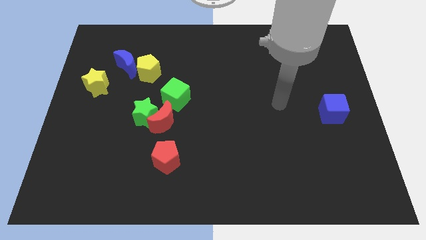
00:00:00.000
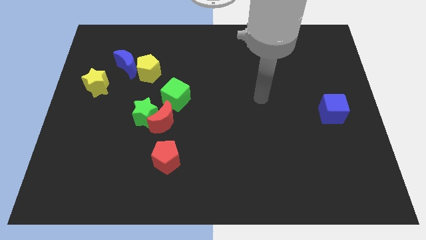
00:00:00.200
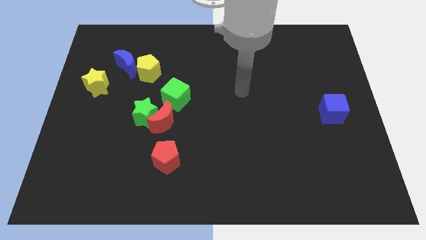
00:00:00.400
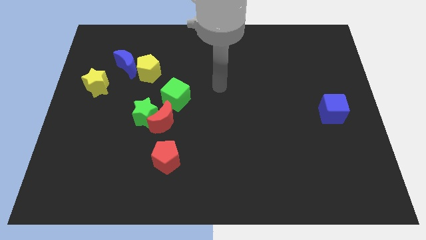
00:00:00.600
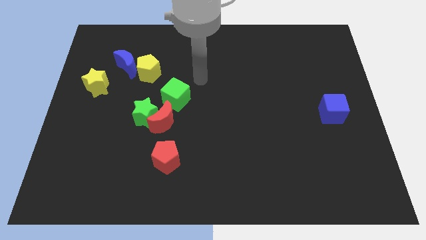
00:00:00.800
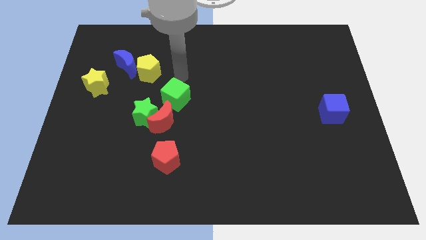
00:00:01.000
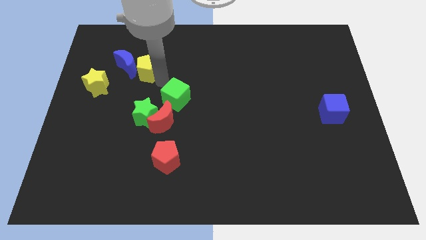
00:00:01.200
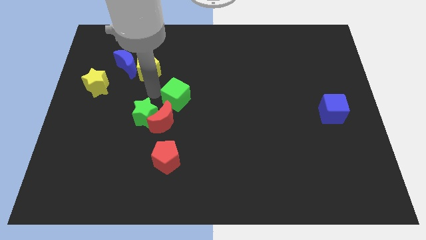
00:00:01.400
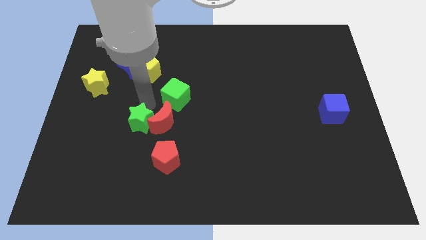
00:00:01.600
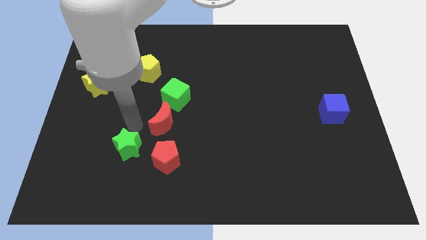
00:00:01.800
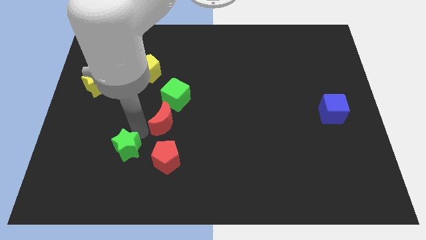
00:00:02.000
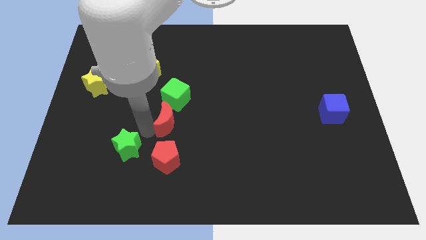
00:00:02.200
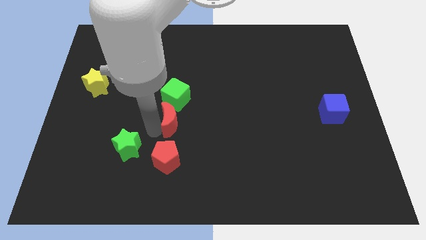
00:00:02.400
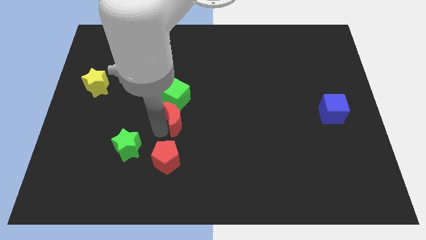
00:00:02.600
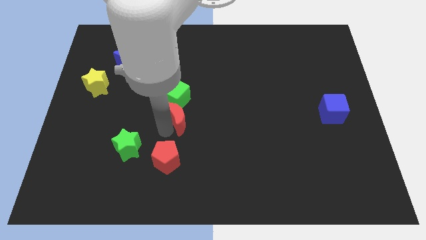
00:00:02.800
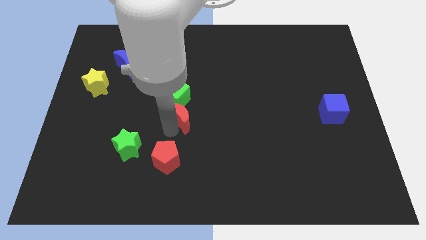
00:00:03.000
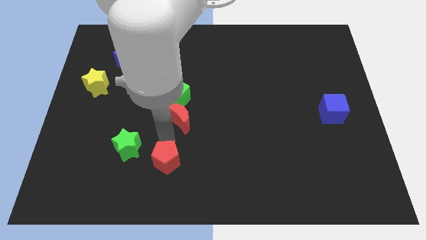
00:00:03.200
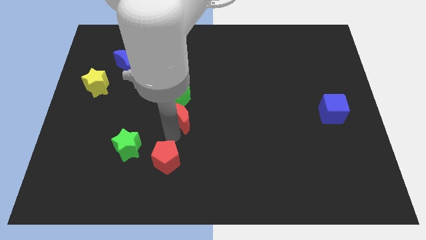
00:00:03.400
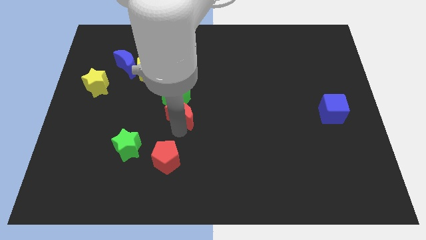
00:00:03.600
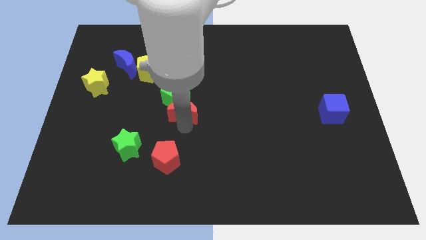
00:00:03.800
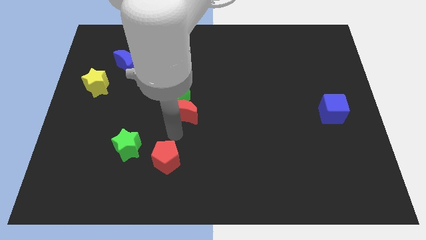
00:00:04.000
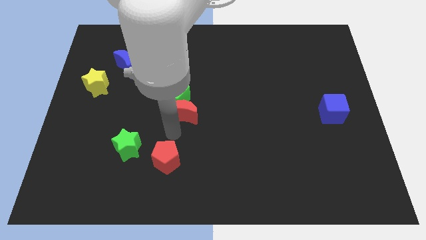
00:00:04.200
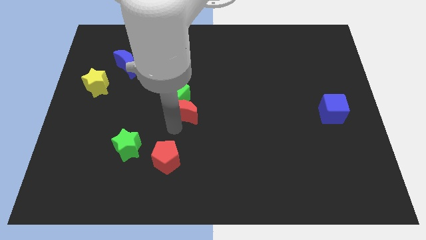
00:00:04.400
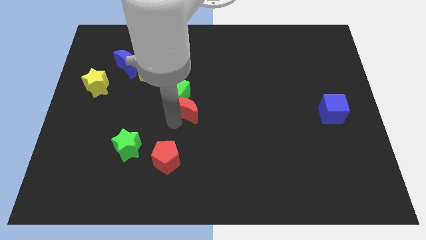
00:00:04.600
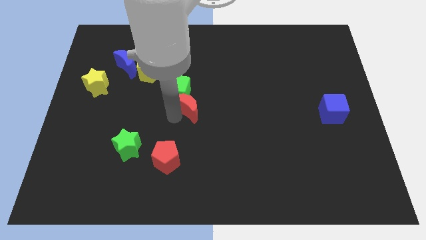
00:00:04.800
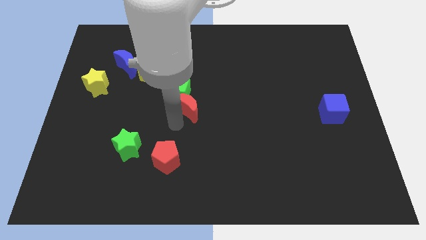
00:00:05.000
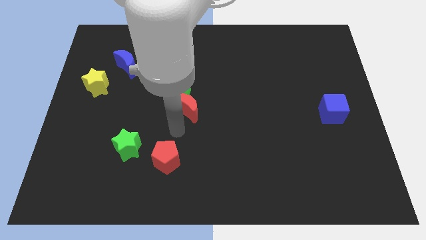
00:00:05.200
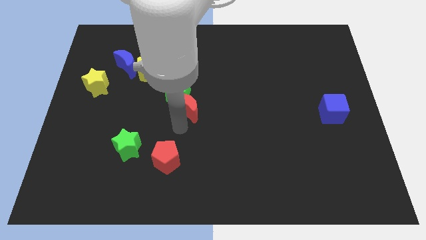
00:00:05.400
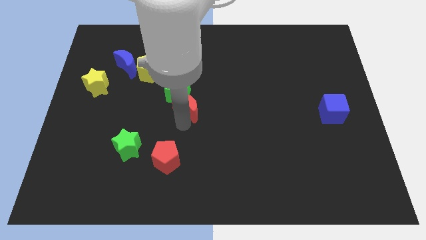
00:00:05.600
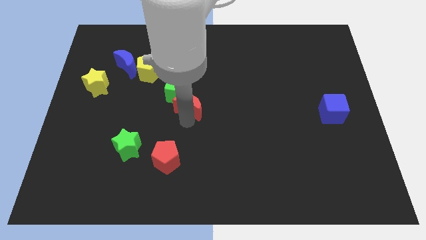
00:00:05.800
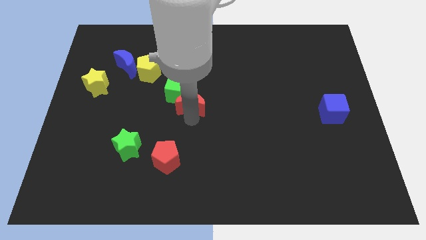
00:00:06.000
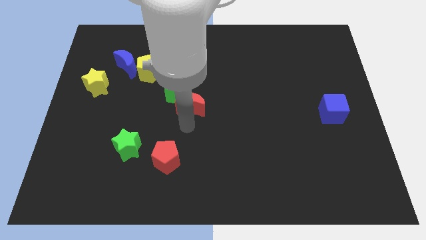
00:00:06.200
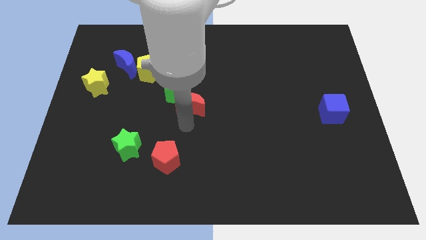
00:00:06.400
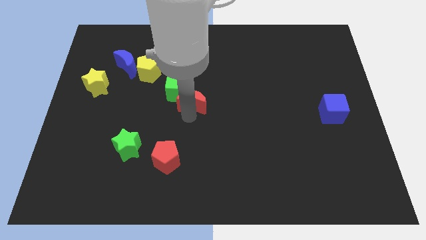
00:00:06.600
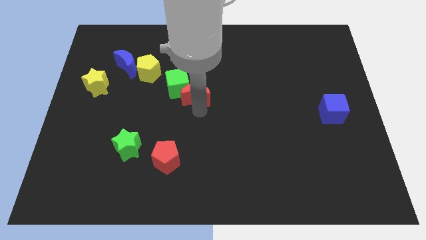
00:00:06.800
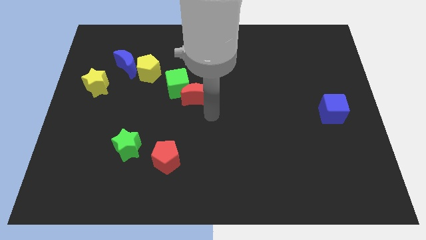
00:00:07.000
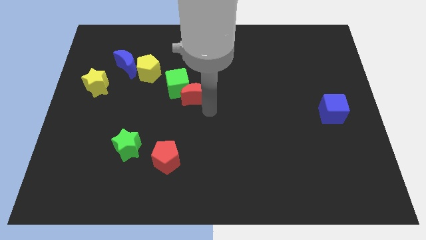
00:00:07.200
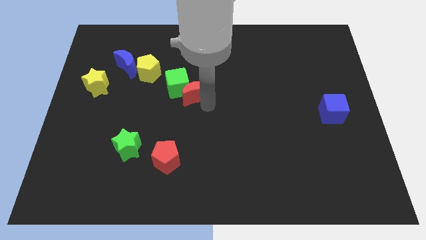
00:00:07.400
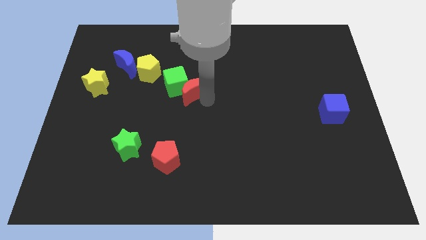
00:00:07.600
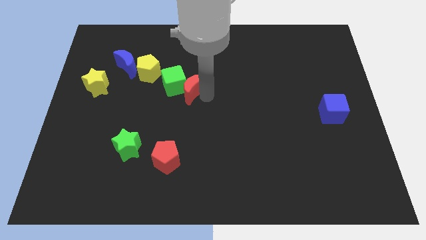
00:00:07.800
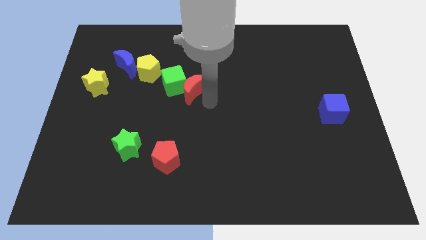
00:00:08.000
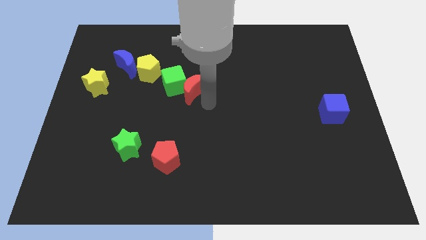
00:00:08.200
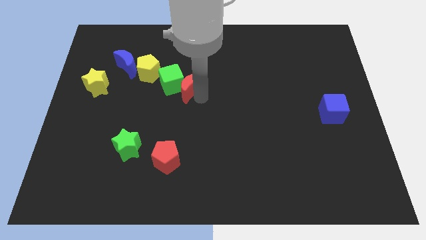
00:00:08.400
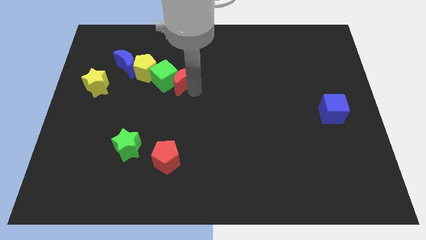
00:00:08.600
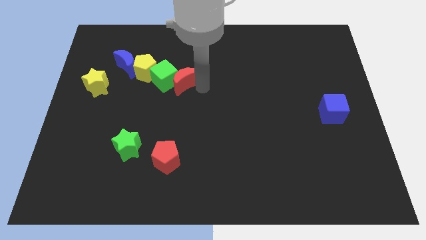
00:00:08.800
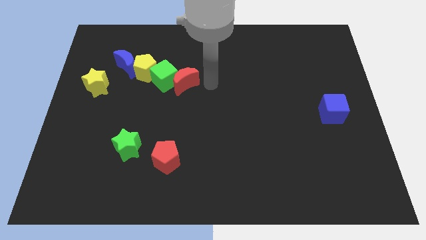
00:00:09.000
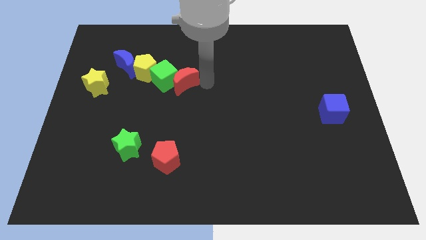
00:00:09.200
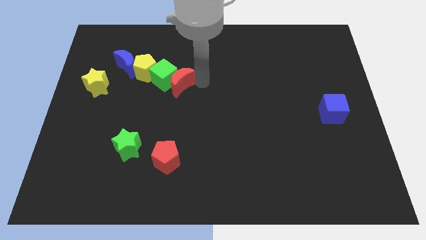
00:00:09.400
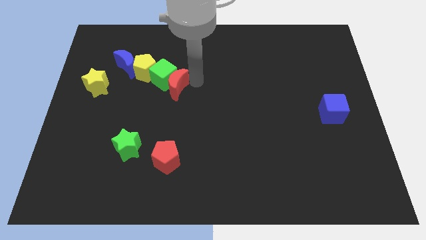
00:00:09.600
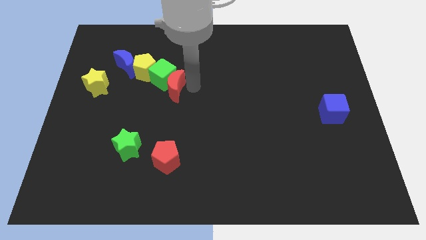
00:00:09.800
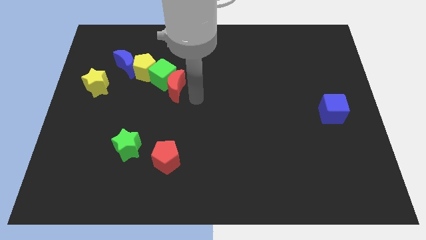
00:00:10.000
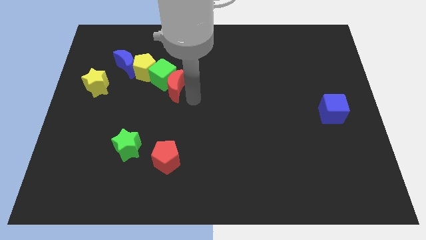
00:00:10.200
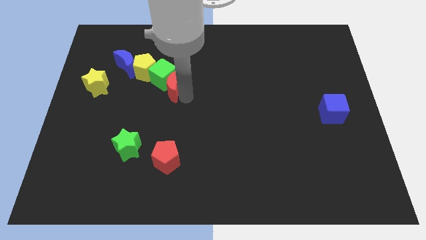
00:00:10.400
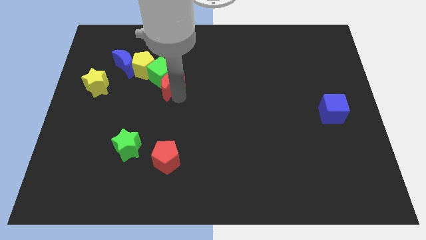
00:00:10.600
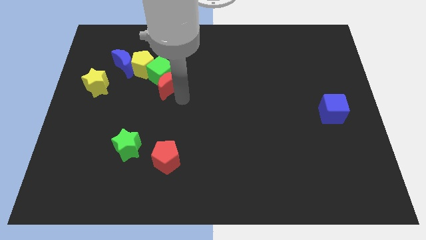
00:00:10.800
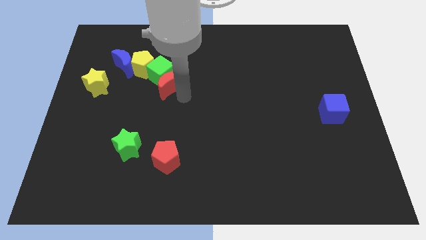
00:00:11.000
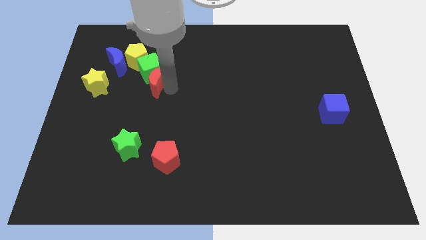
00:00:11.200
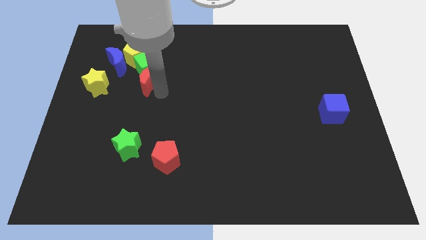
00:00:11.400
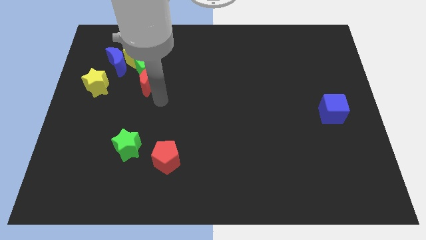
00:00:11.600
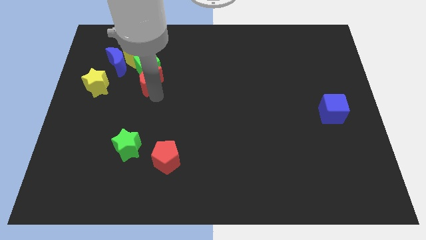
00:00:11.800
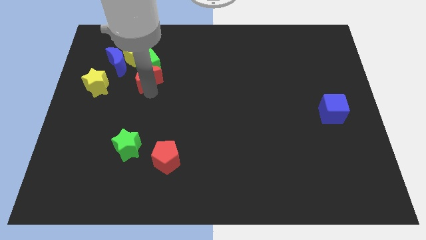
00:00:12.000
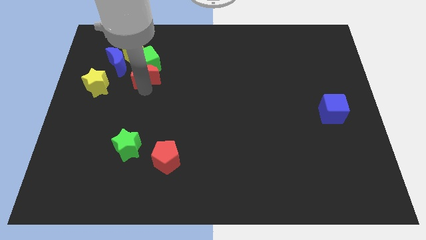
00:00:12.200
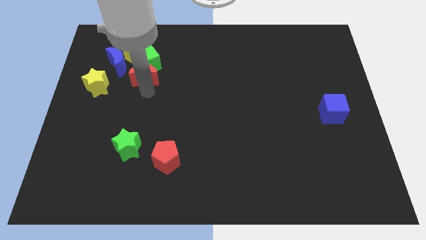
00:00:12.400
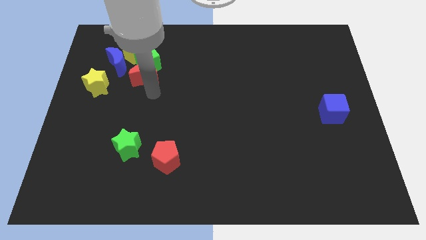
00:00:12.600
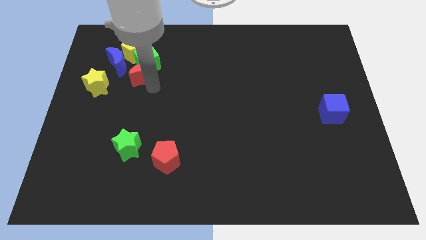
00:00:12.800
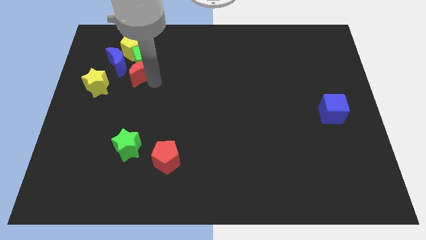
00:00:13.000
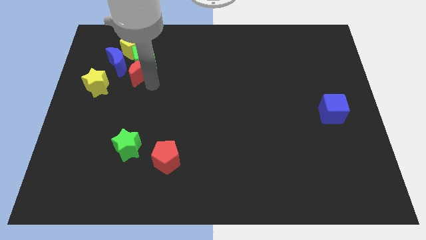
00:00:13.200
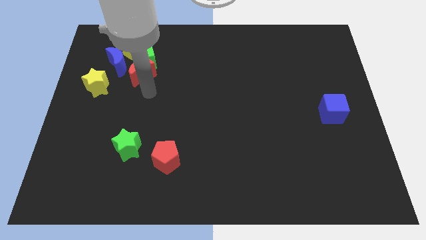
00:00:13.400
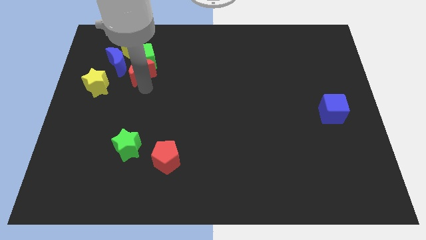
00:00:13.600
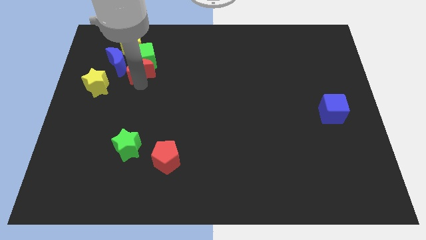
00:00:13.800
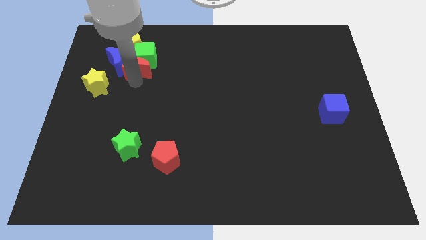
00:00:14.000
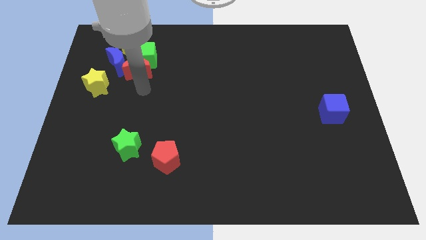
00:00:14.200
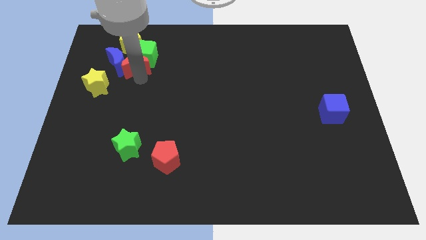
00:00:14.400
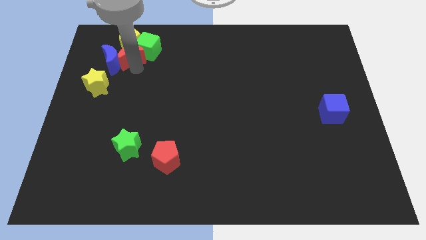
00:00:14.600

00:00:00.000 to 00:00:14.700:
move the red moon next to the yellow pentagon
